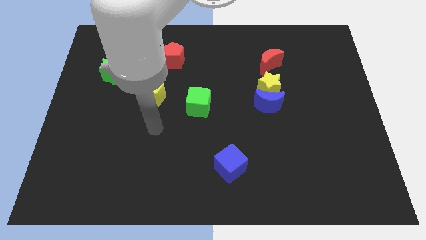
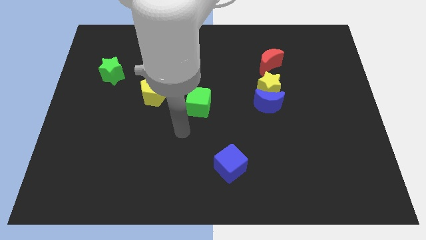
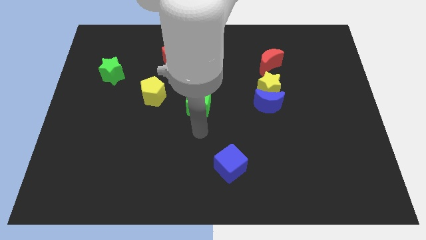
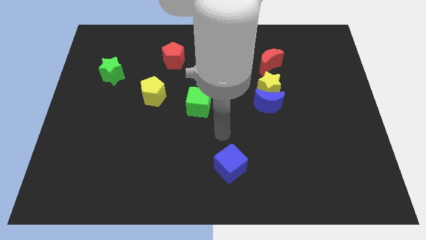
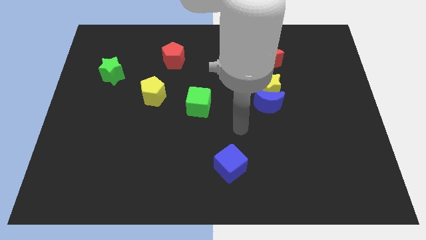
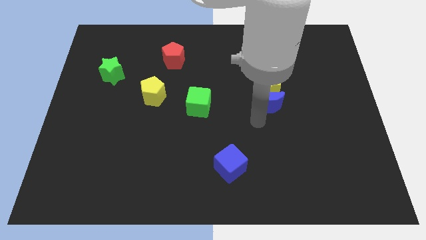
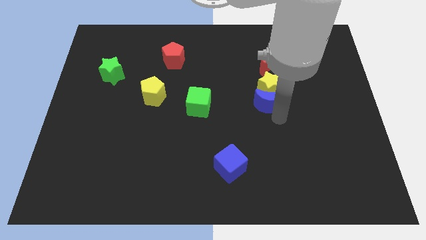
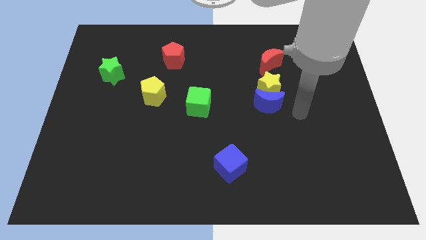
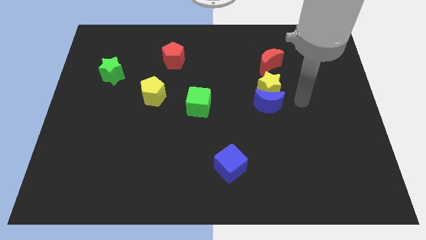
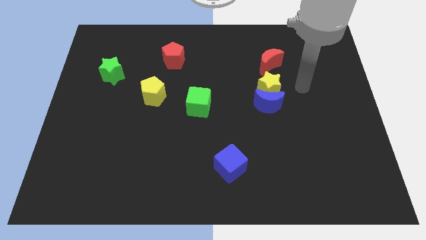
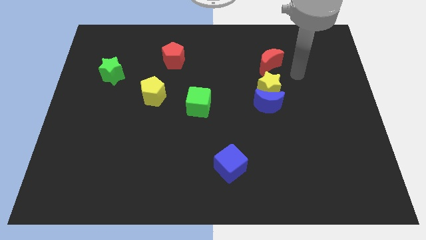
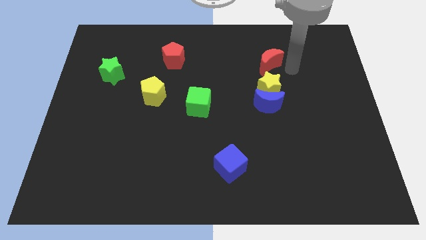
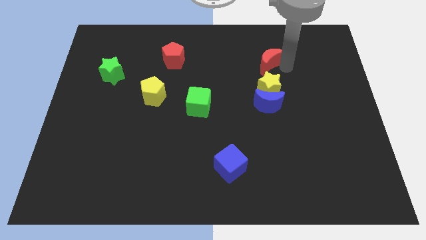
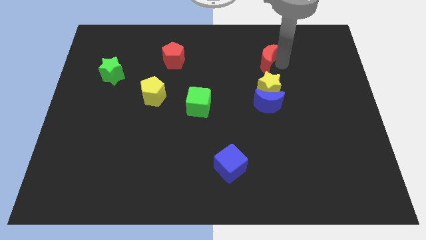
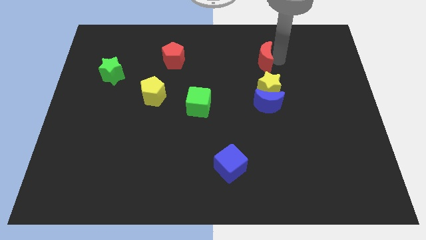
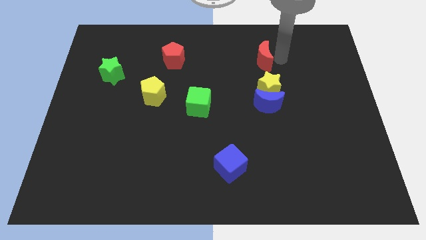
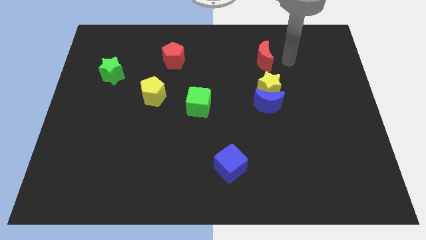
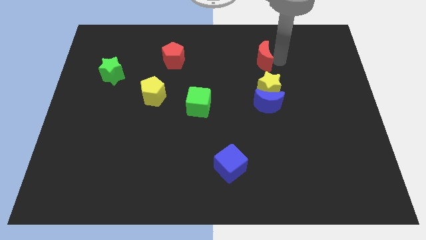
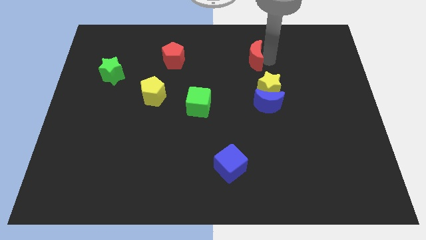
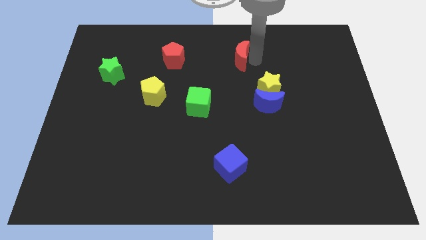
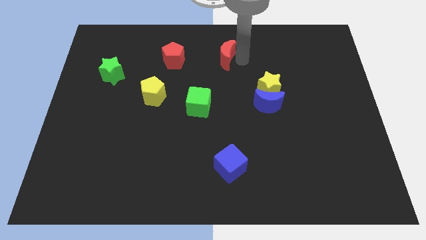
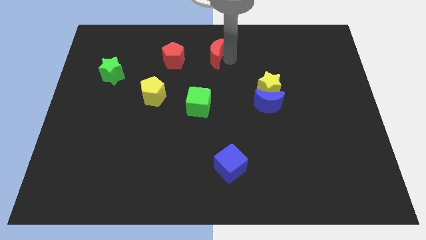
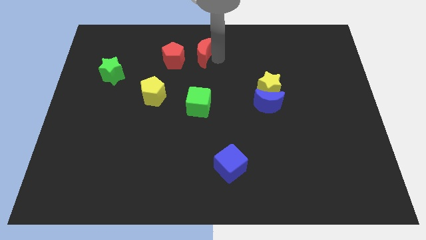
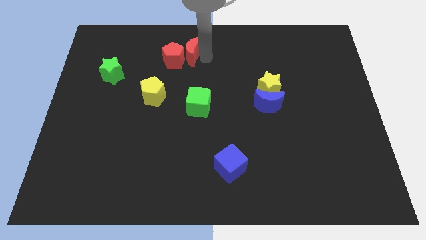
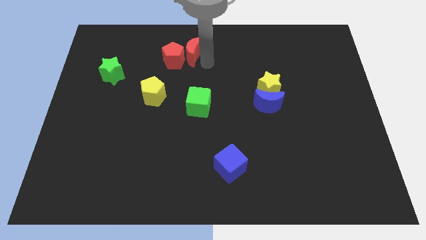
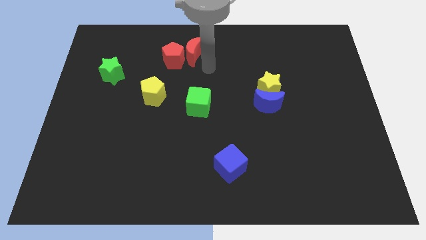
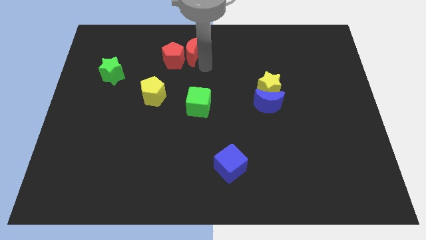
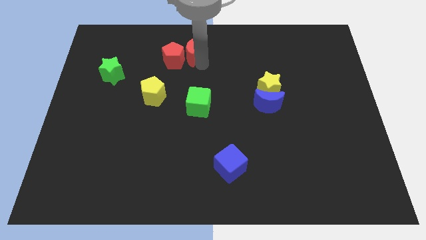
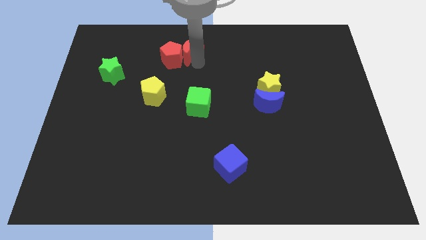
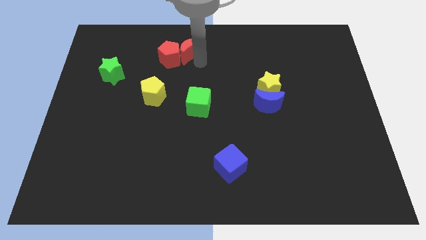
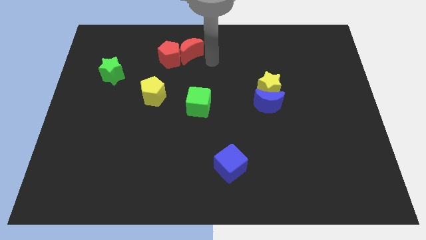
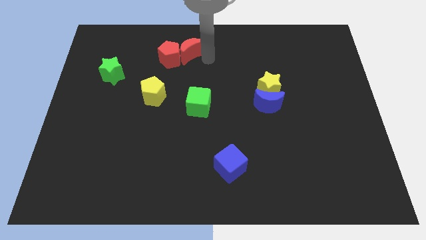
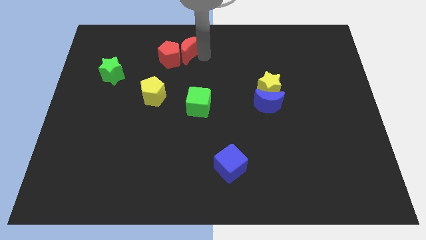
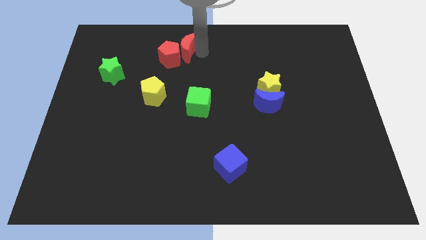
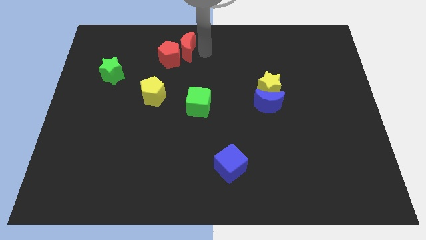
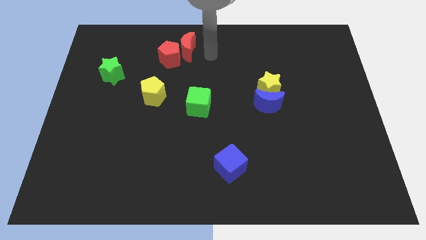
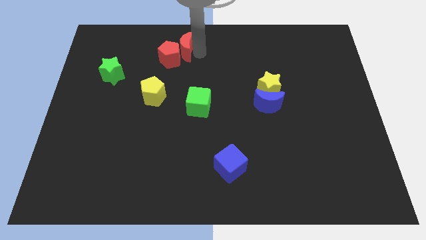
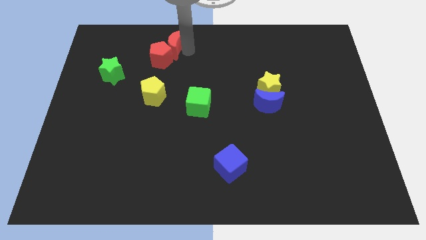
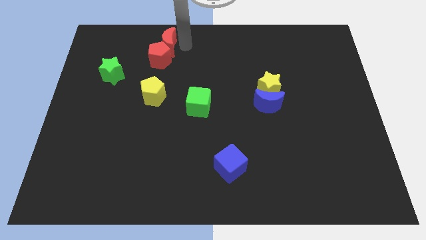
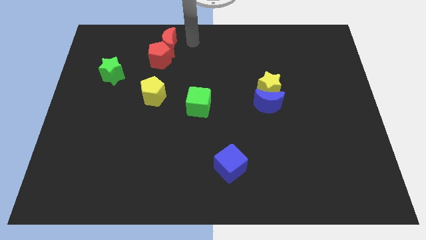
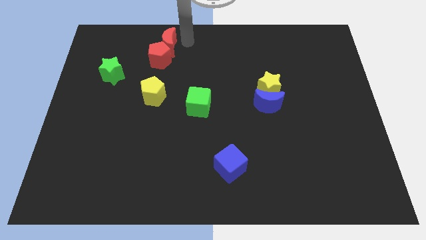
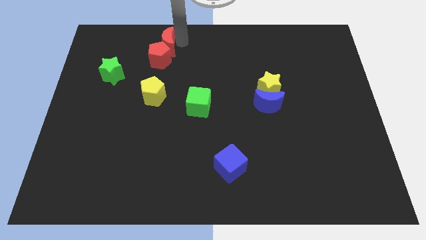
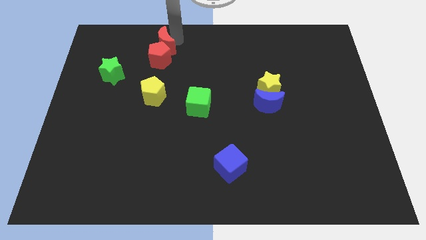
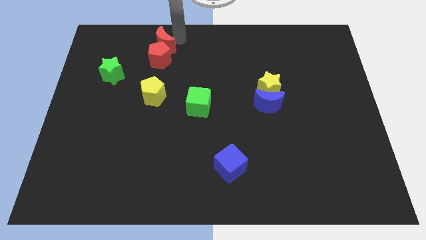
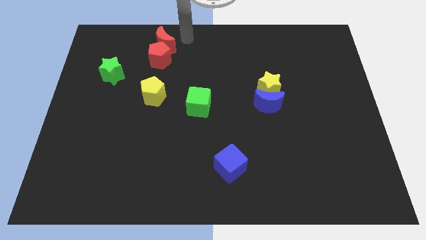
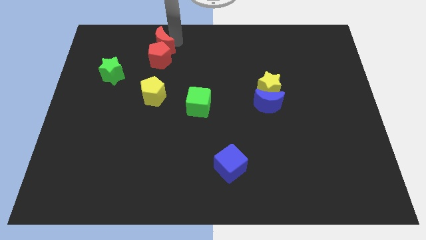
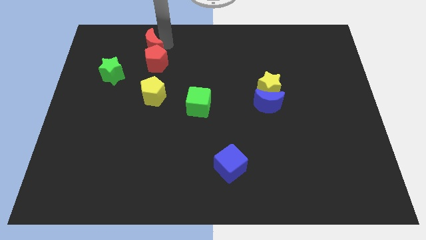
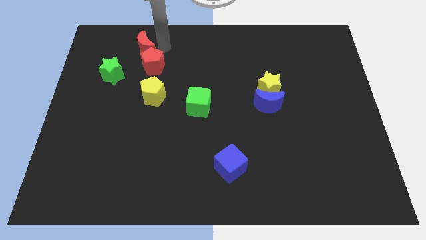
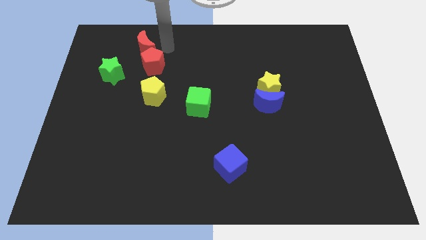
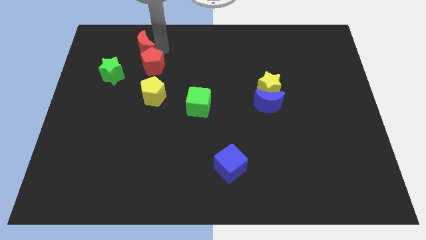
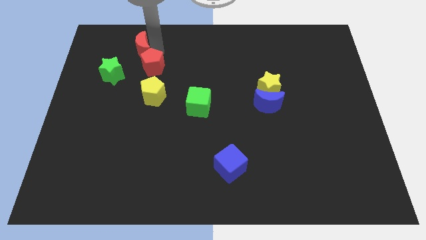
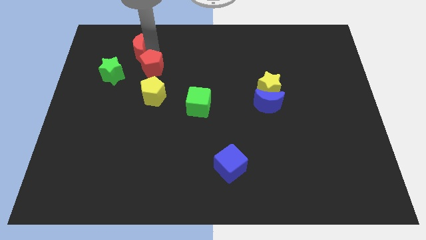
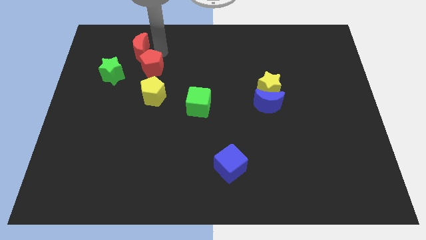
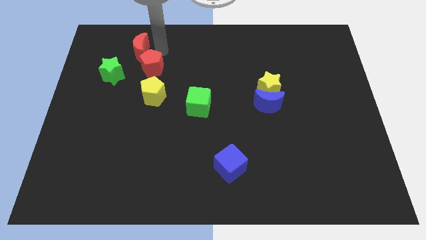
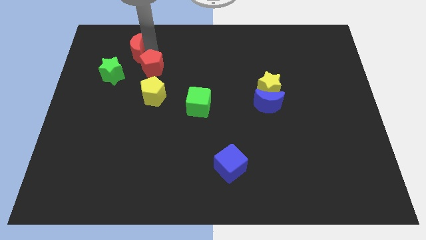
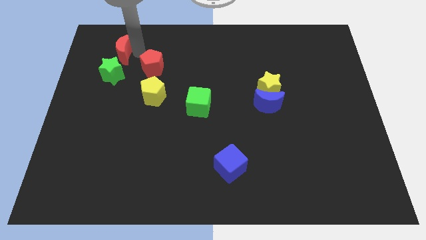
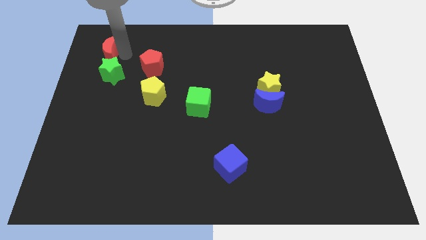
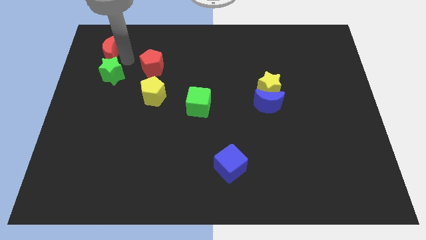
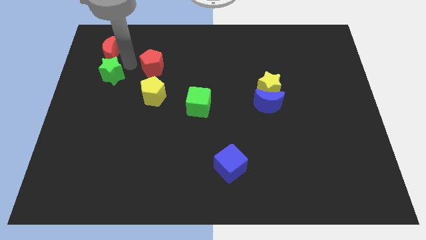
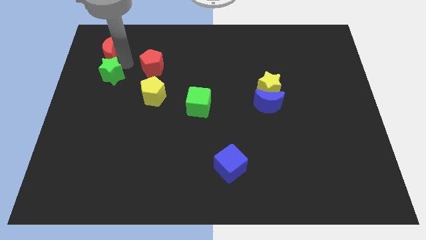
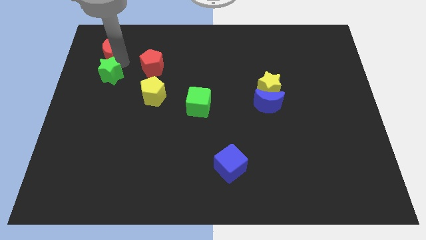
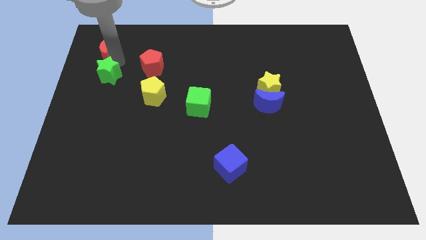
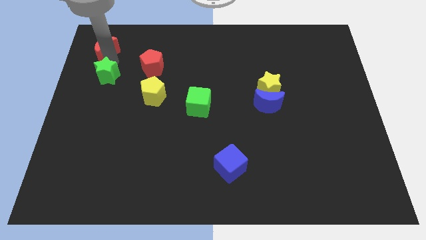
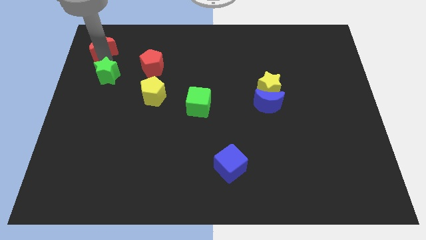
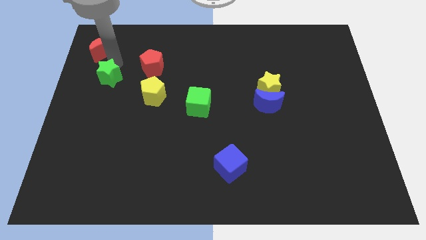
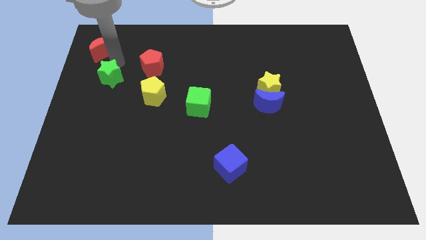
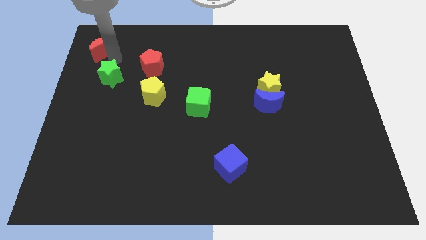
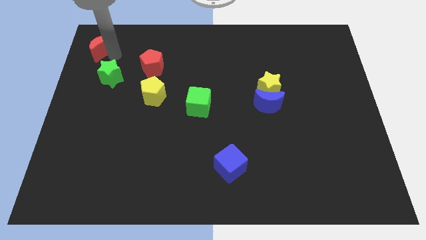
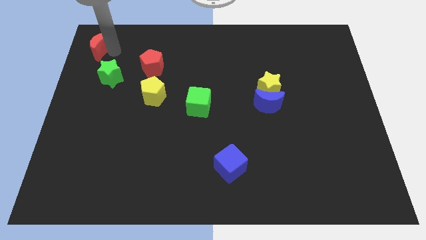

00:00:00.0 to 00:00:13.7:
push the red moon to the top left
